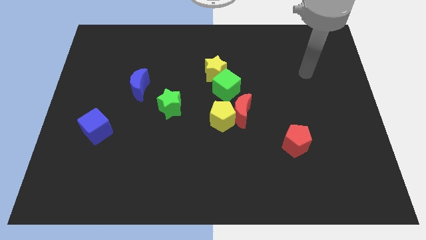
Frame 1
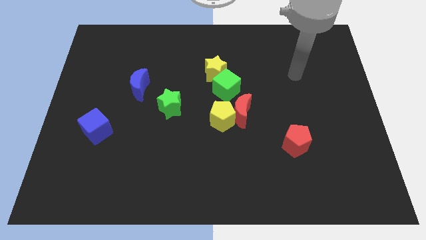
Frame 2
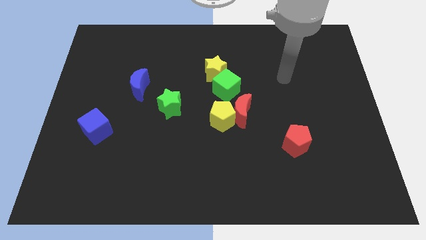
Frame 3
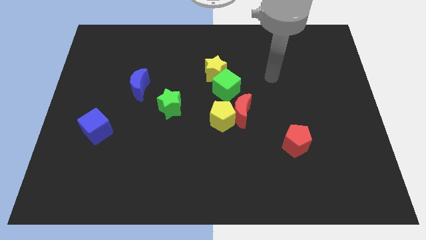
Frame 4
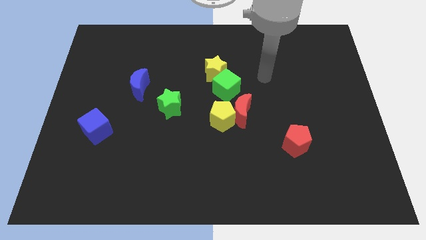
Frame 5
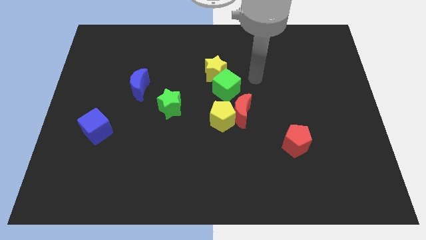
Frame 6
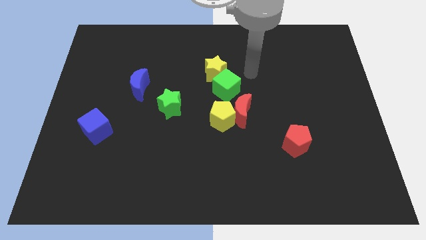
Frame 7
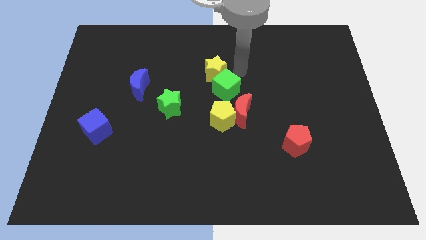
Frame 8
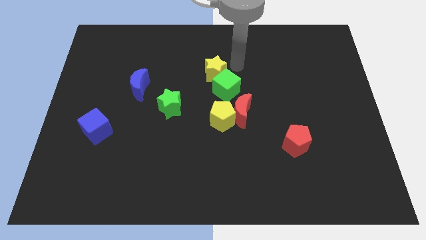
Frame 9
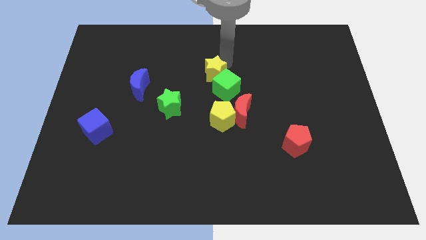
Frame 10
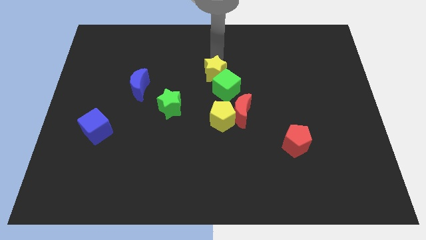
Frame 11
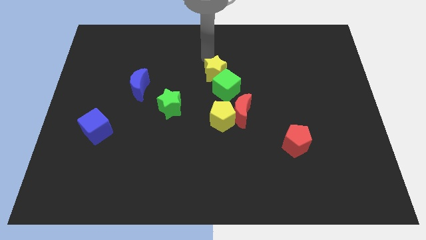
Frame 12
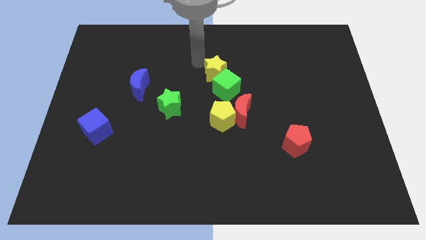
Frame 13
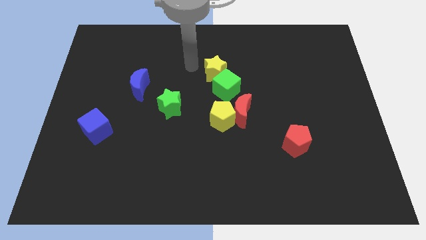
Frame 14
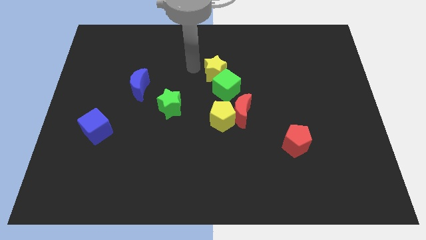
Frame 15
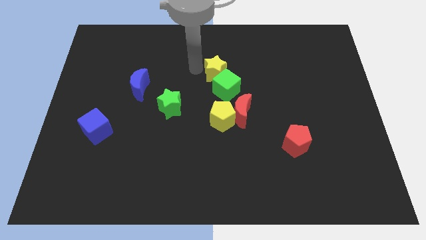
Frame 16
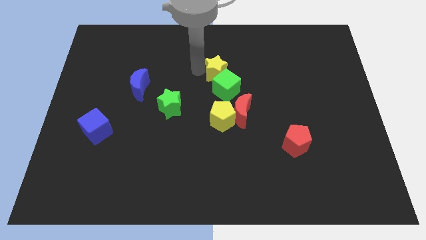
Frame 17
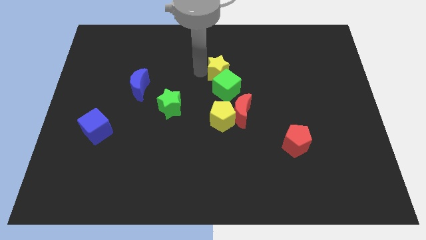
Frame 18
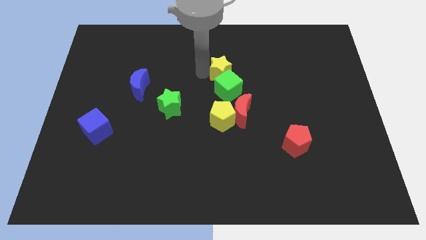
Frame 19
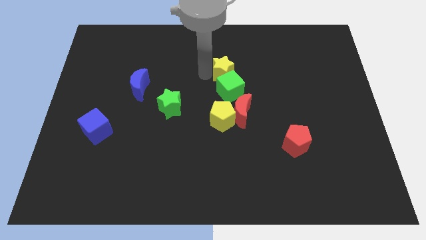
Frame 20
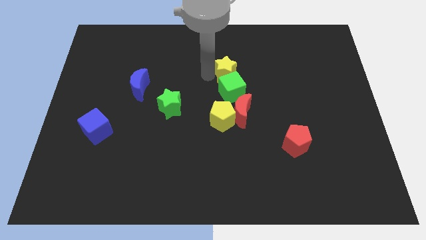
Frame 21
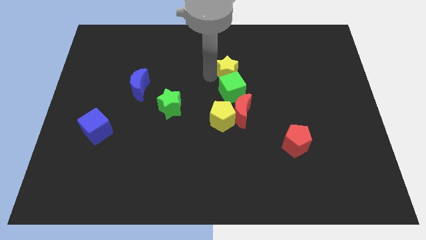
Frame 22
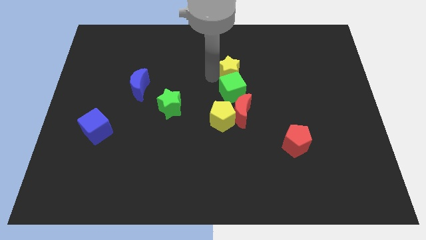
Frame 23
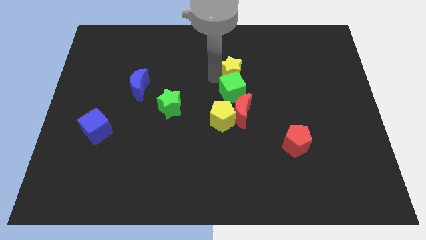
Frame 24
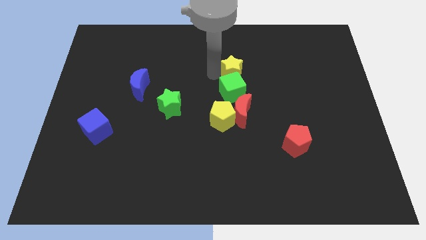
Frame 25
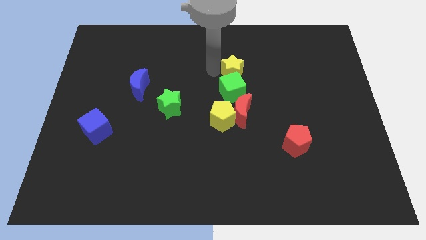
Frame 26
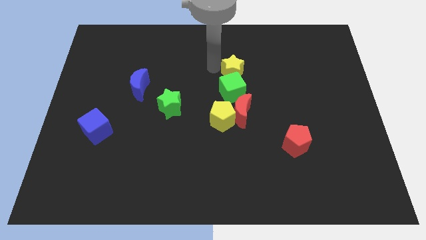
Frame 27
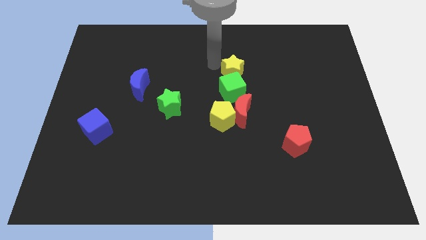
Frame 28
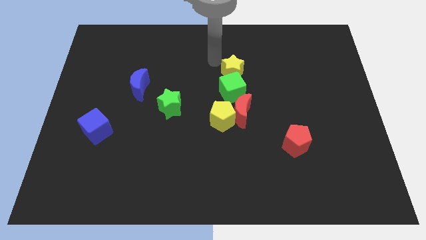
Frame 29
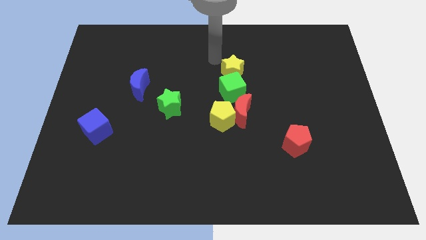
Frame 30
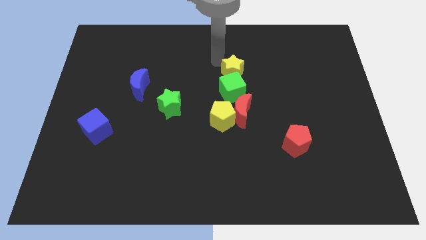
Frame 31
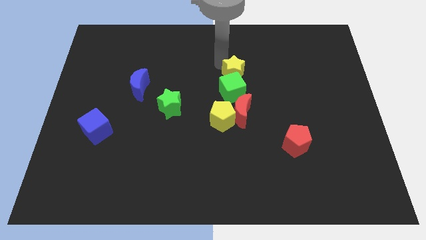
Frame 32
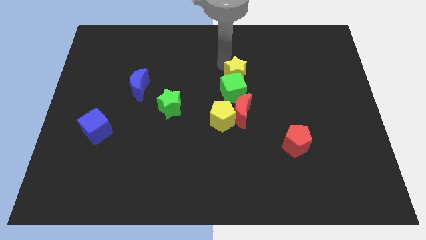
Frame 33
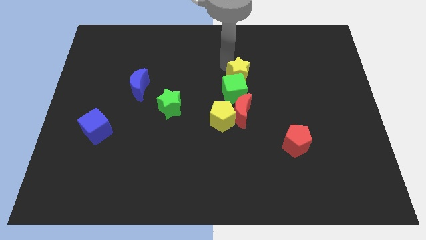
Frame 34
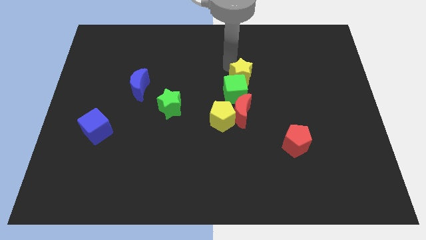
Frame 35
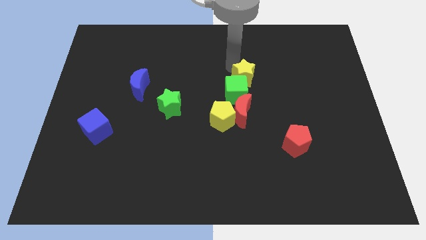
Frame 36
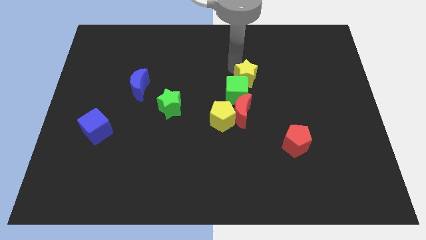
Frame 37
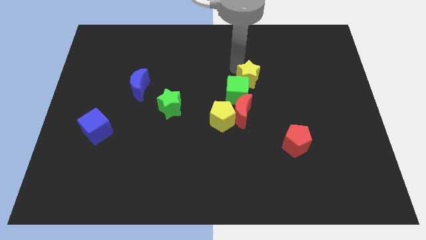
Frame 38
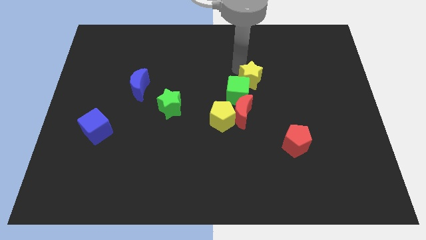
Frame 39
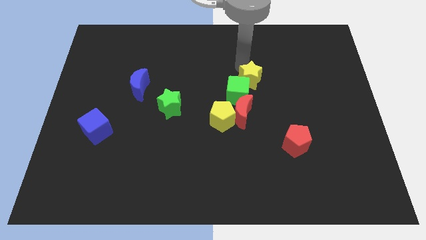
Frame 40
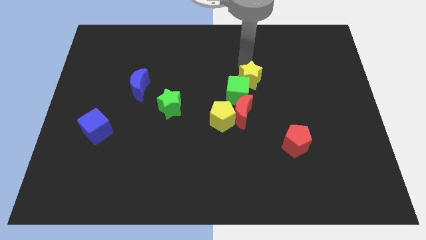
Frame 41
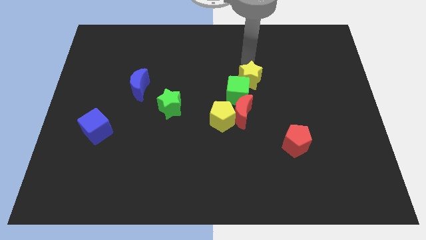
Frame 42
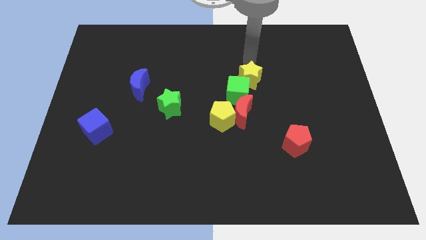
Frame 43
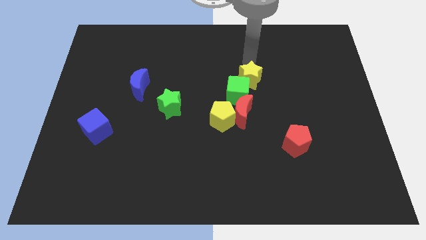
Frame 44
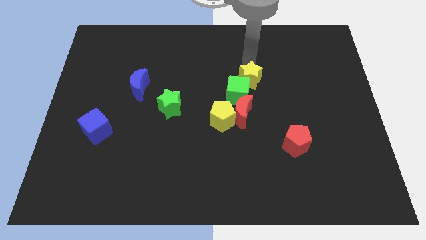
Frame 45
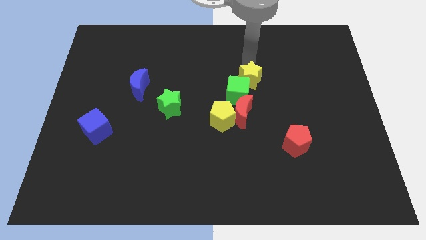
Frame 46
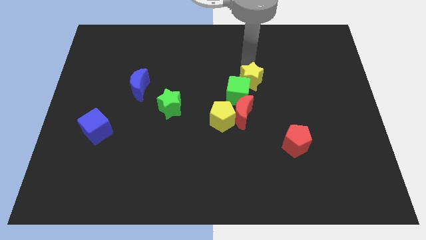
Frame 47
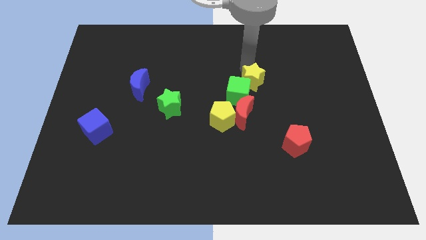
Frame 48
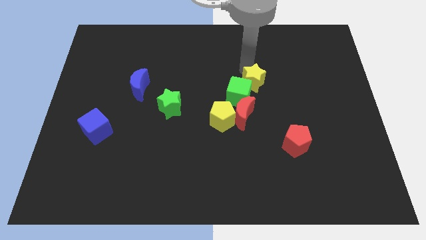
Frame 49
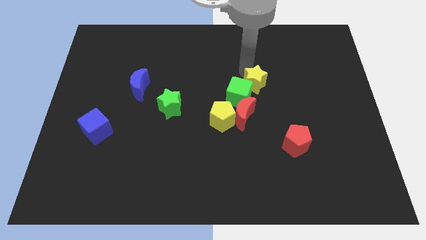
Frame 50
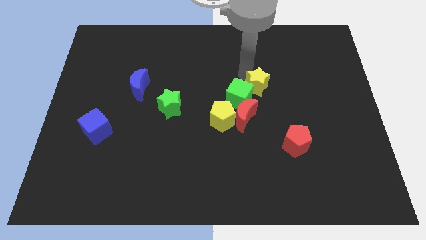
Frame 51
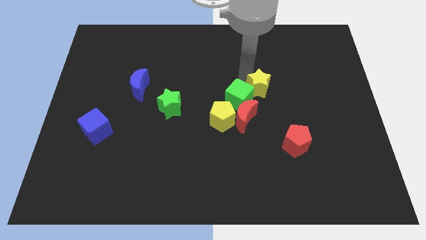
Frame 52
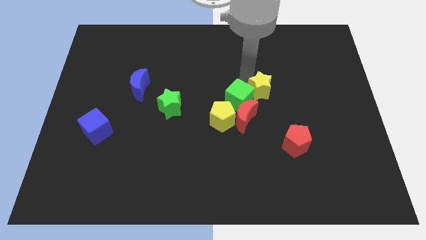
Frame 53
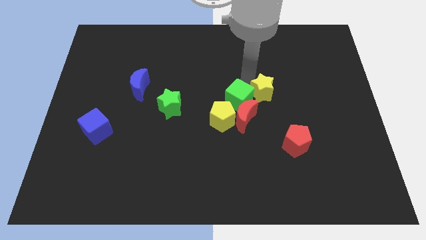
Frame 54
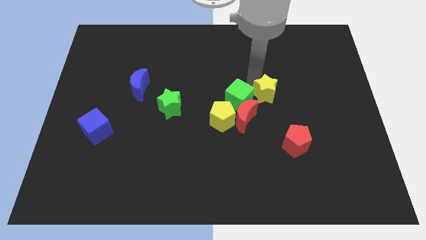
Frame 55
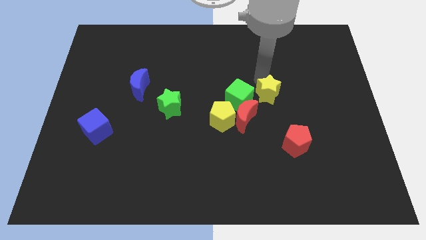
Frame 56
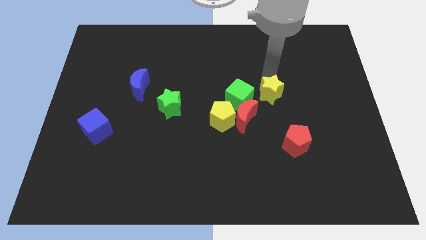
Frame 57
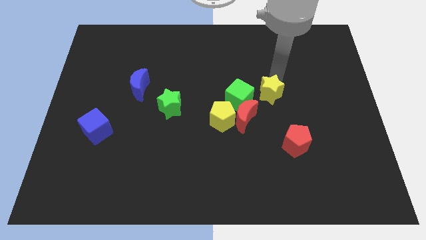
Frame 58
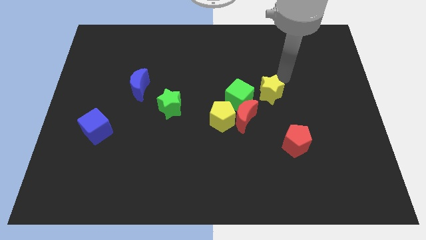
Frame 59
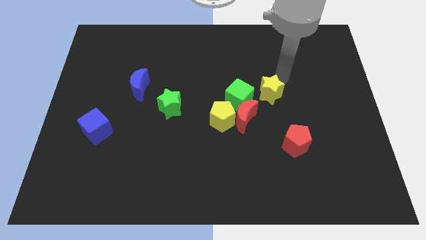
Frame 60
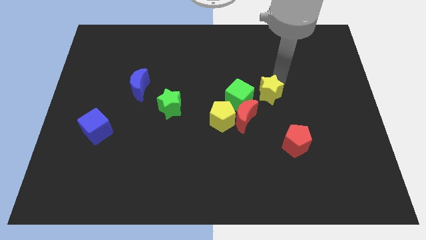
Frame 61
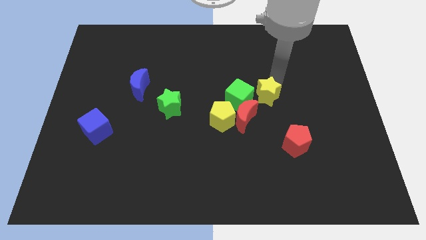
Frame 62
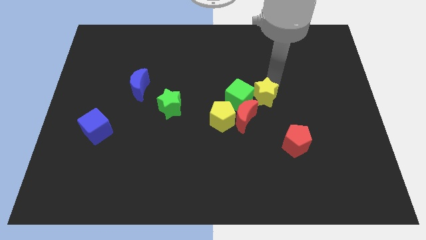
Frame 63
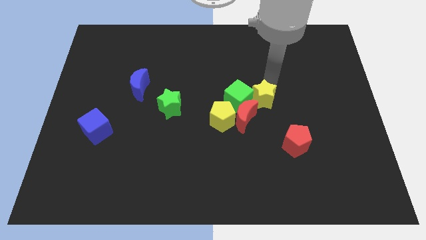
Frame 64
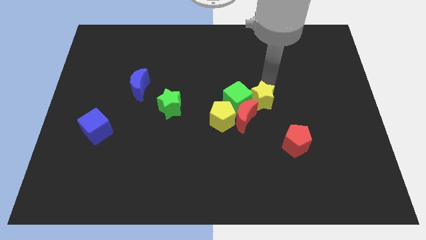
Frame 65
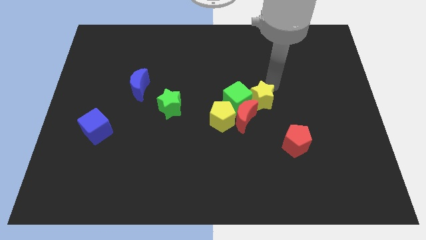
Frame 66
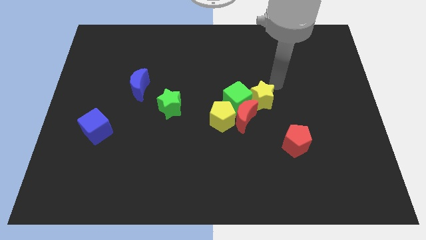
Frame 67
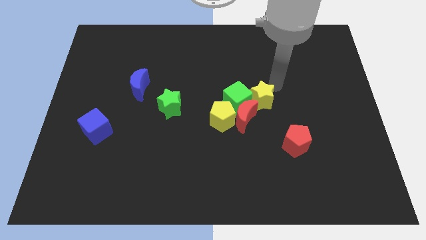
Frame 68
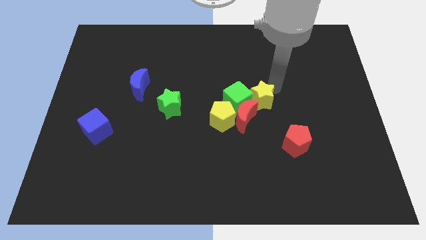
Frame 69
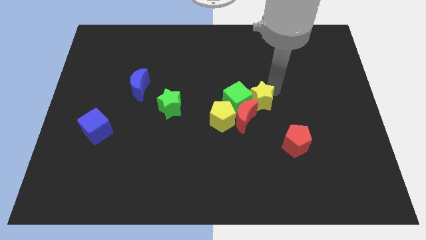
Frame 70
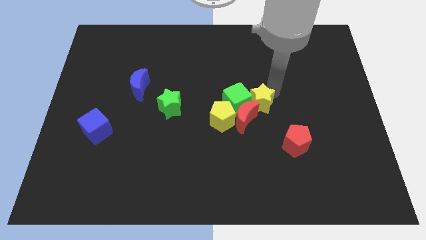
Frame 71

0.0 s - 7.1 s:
slide the yellow star next to the red moon

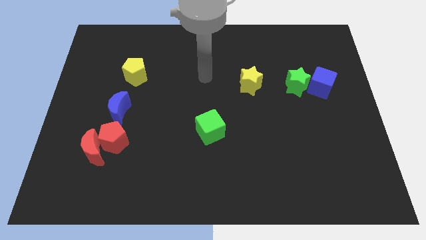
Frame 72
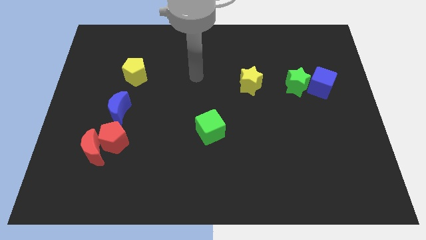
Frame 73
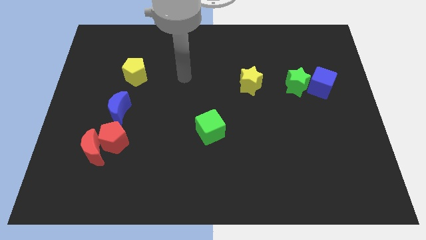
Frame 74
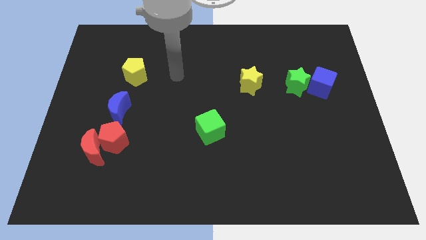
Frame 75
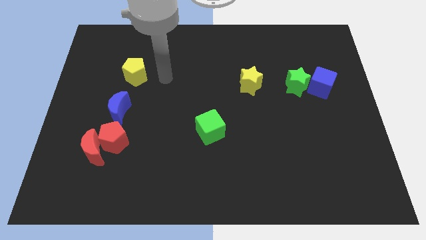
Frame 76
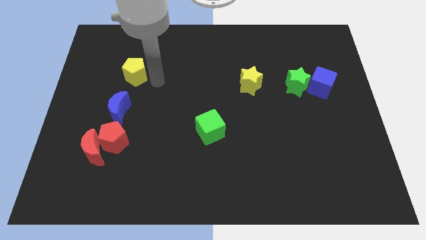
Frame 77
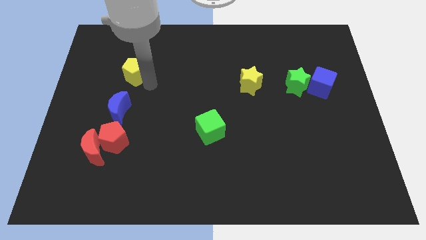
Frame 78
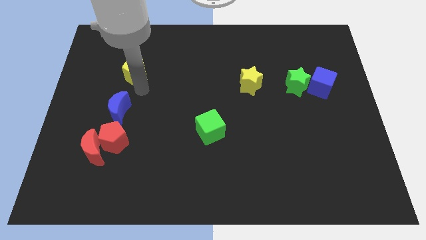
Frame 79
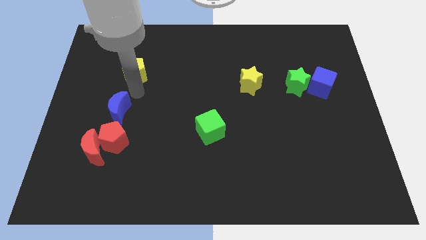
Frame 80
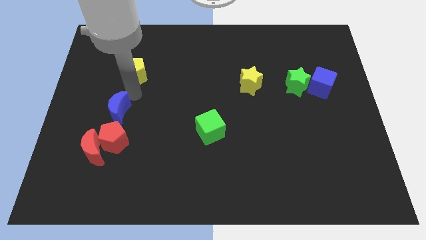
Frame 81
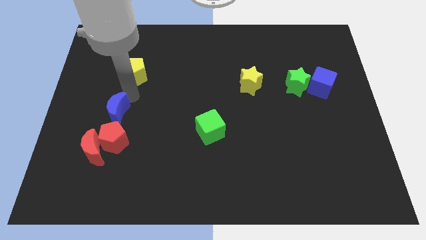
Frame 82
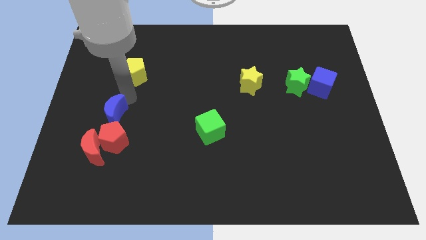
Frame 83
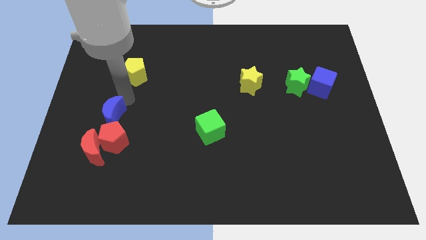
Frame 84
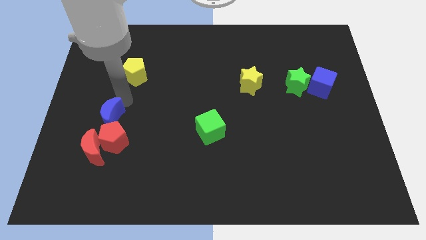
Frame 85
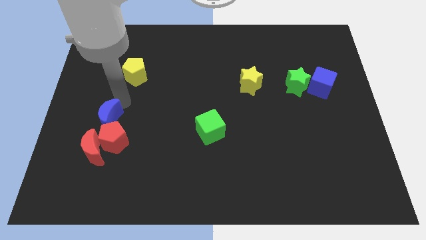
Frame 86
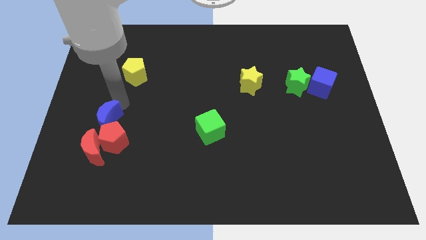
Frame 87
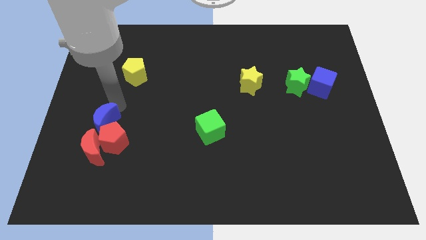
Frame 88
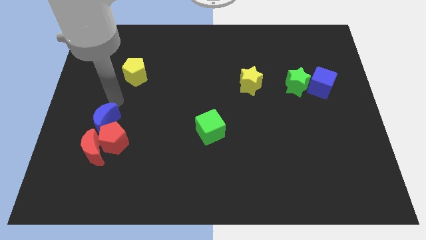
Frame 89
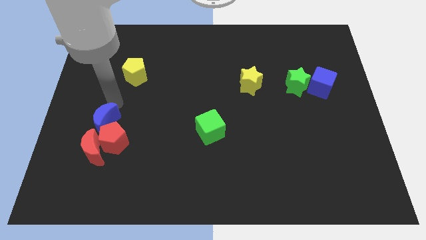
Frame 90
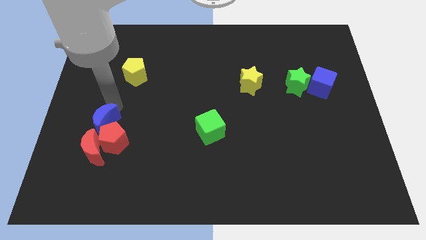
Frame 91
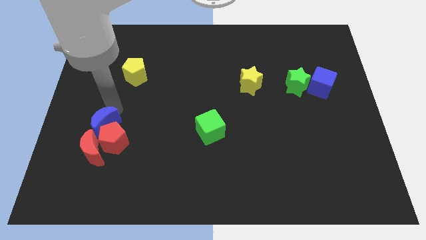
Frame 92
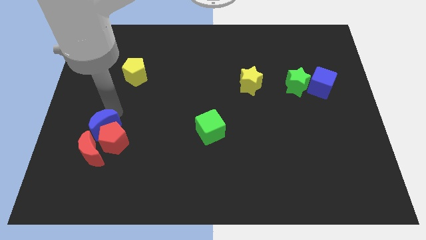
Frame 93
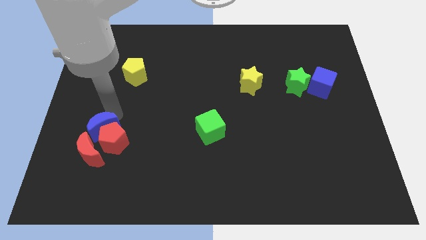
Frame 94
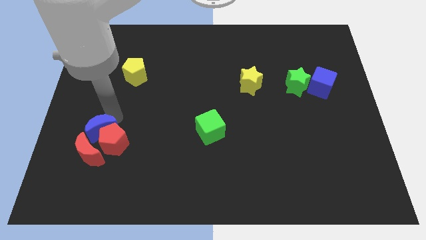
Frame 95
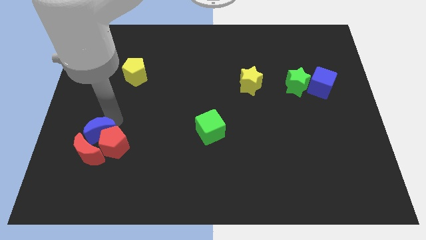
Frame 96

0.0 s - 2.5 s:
slide the blue moon towards the red moon
